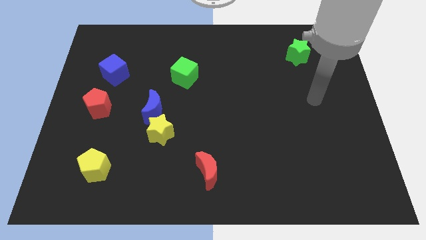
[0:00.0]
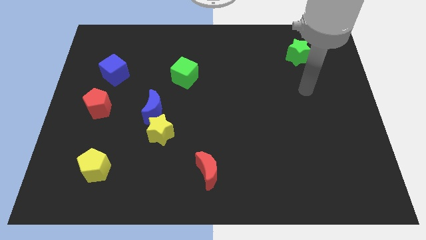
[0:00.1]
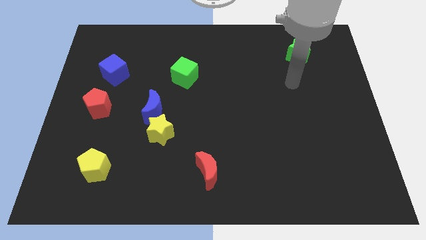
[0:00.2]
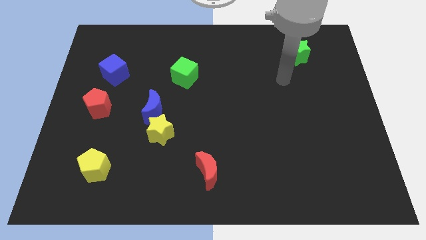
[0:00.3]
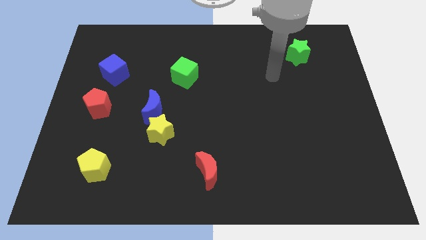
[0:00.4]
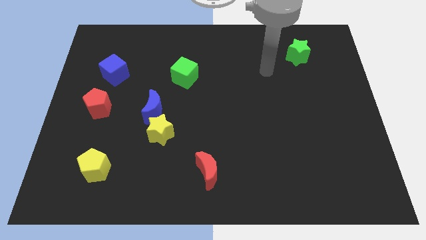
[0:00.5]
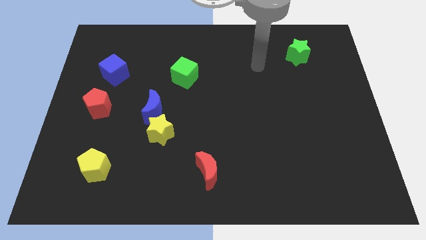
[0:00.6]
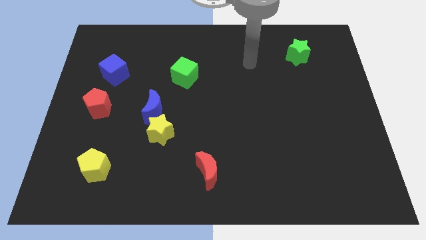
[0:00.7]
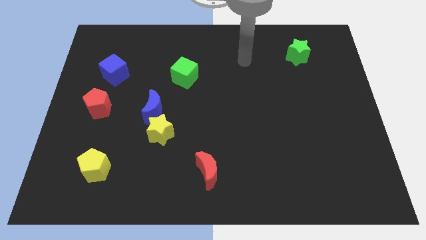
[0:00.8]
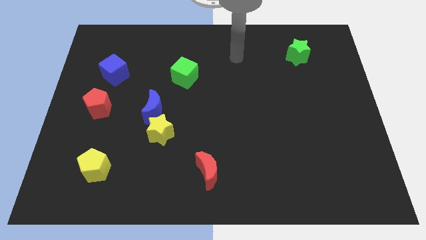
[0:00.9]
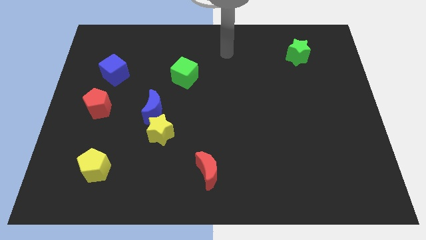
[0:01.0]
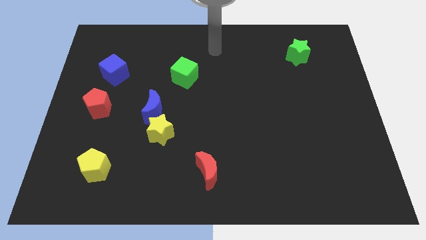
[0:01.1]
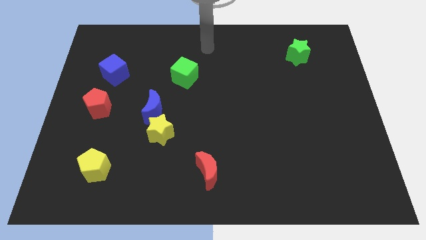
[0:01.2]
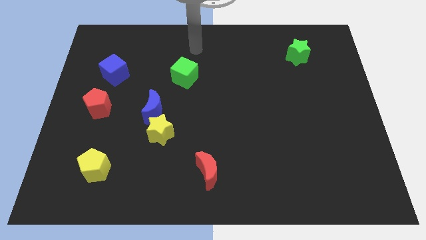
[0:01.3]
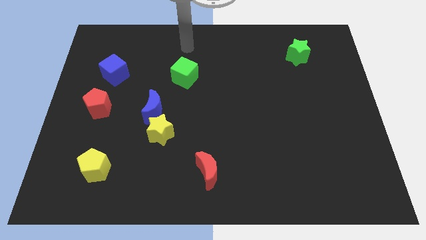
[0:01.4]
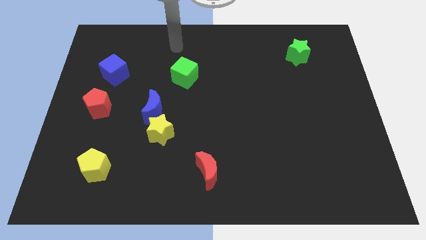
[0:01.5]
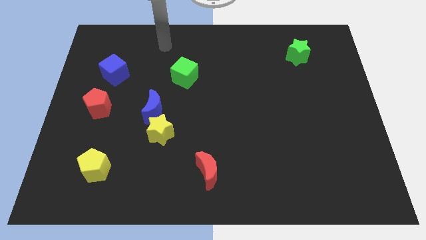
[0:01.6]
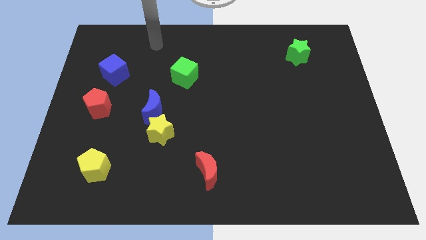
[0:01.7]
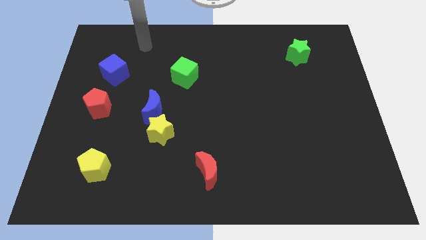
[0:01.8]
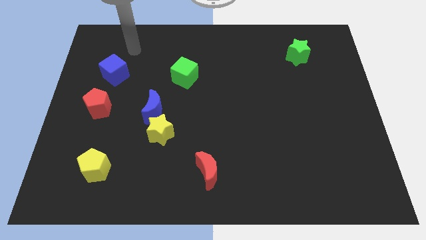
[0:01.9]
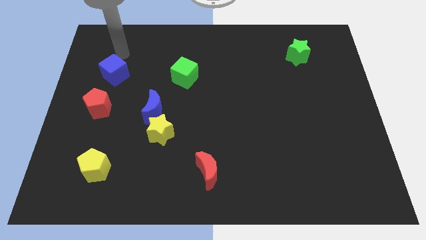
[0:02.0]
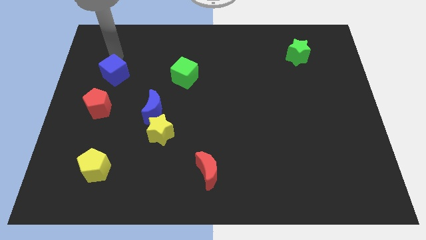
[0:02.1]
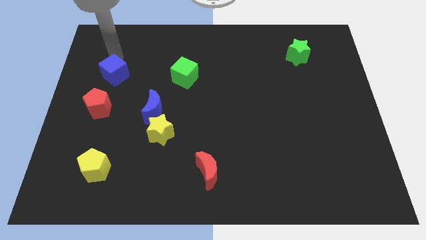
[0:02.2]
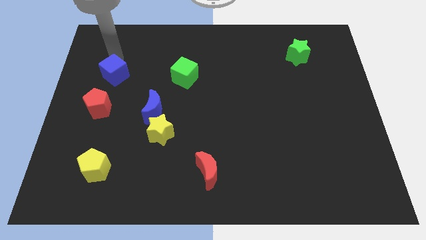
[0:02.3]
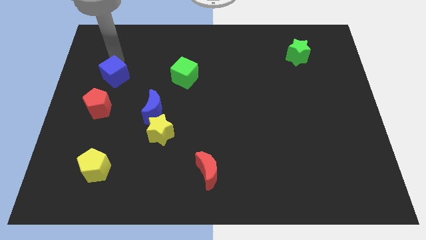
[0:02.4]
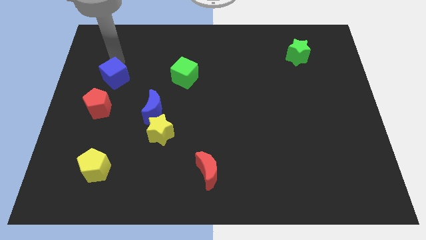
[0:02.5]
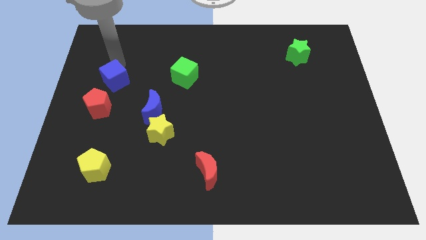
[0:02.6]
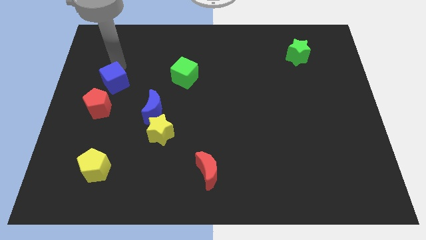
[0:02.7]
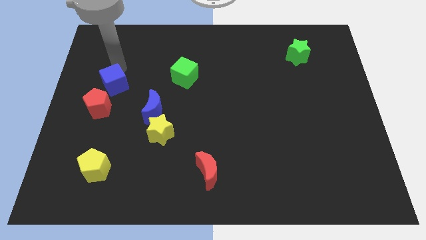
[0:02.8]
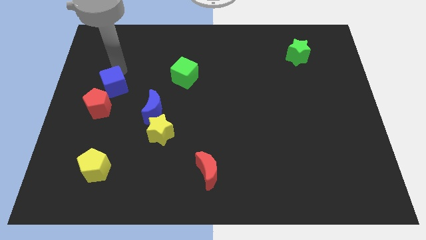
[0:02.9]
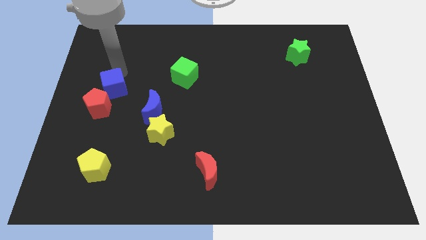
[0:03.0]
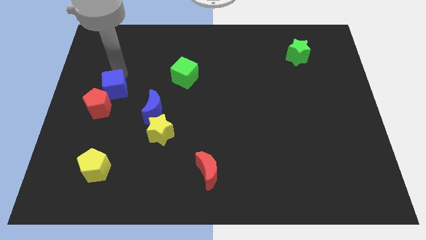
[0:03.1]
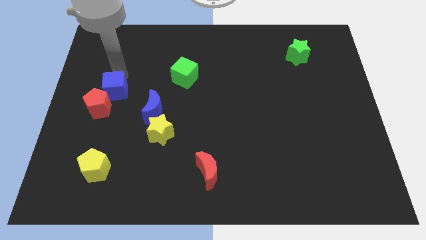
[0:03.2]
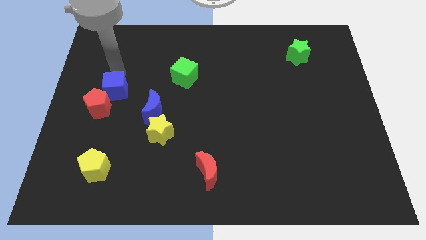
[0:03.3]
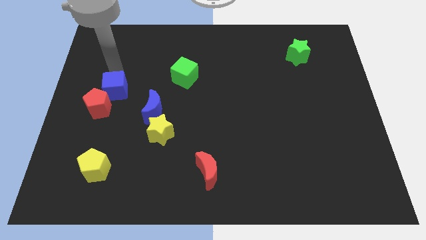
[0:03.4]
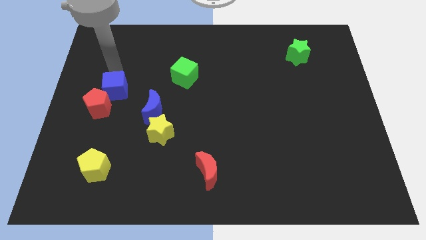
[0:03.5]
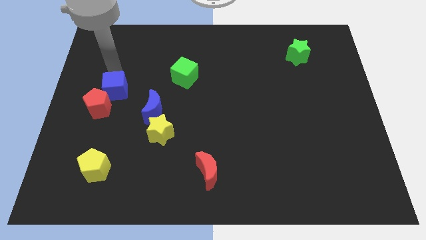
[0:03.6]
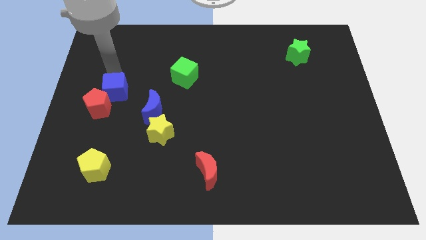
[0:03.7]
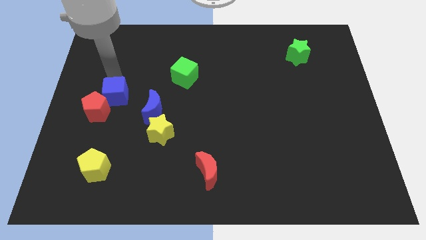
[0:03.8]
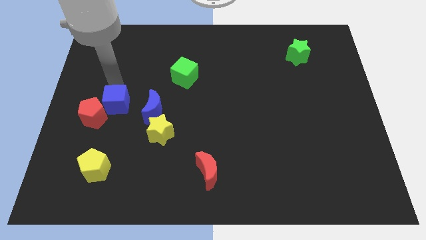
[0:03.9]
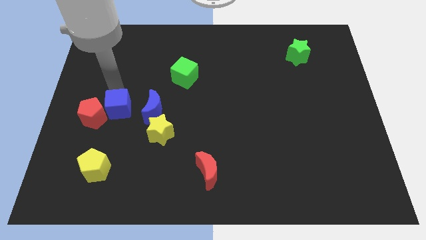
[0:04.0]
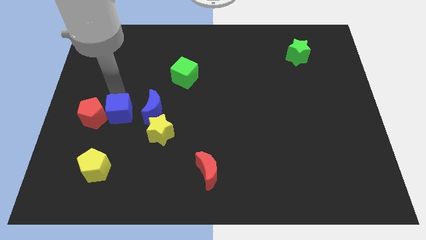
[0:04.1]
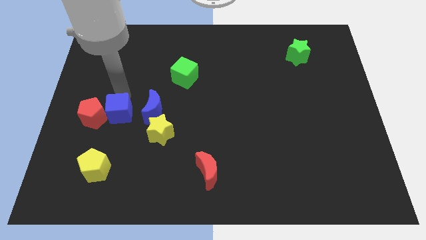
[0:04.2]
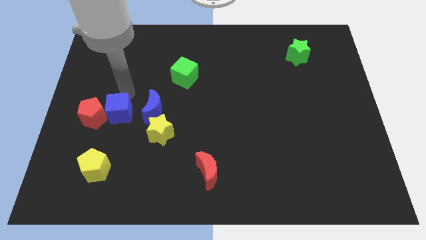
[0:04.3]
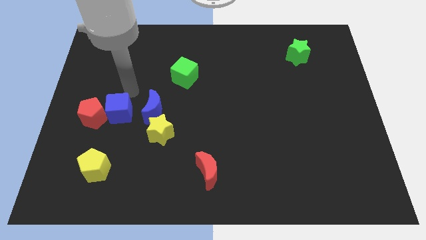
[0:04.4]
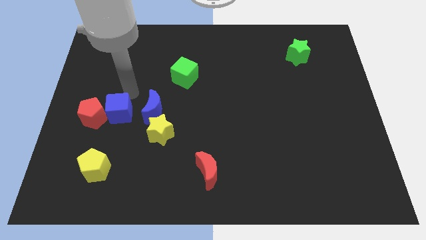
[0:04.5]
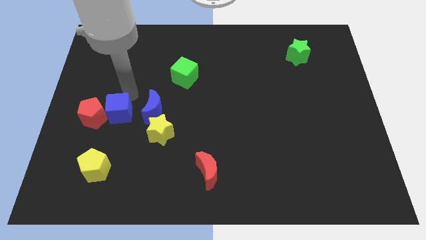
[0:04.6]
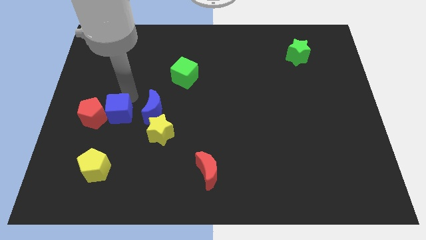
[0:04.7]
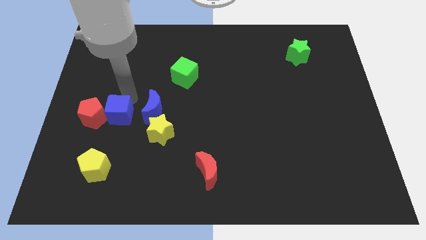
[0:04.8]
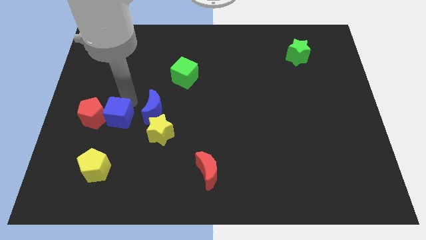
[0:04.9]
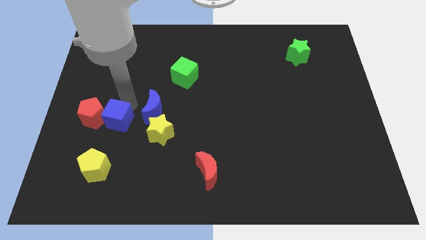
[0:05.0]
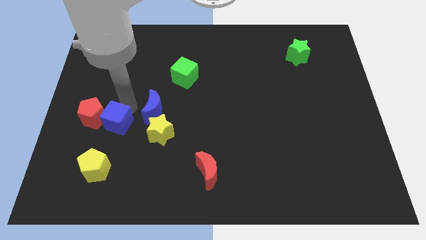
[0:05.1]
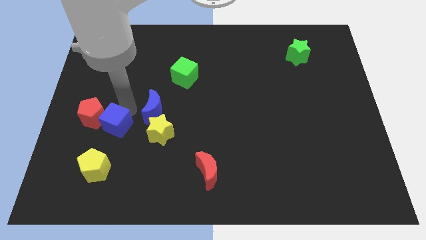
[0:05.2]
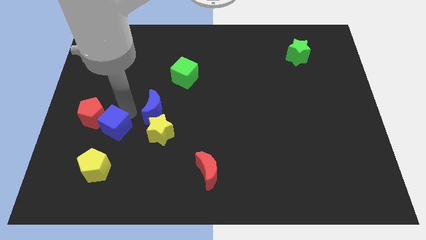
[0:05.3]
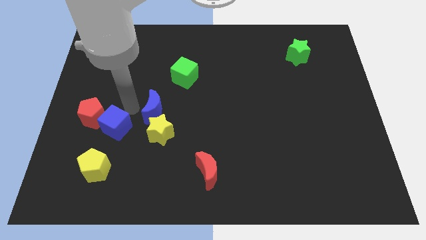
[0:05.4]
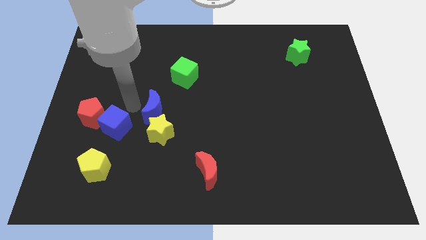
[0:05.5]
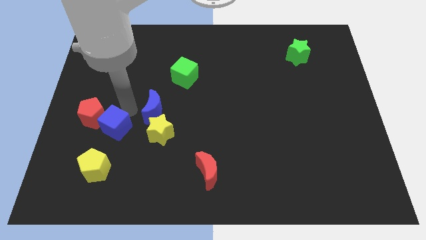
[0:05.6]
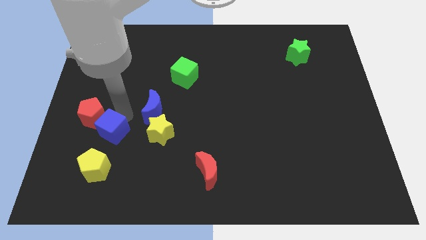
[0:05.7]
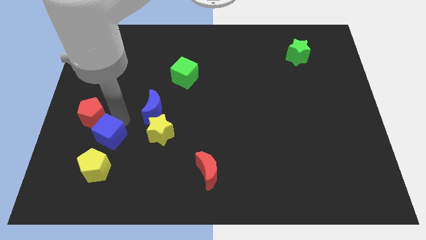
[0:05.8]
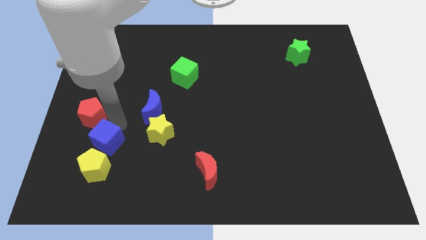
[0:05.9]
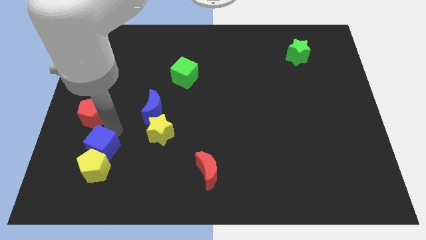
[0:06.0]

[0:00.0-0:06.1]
slide the blue cube to the yellow pentagon

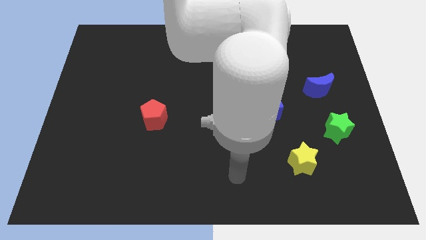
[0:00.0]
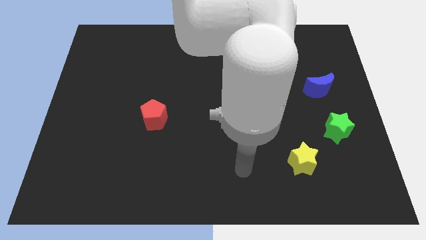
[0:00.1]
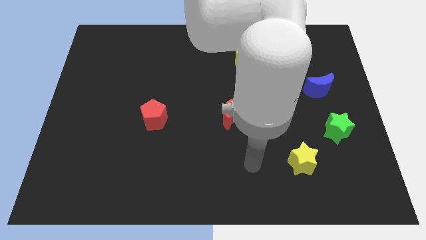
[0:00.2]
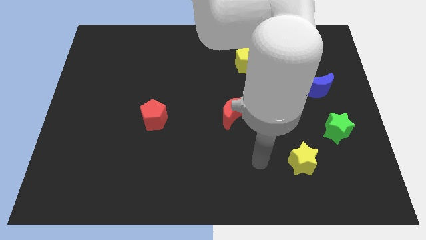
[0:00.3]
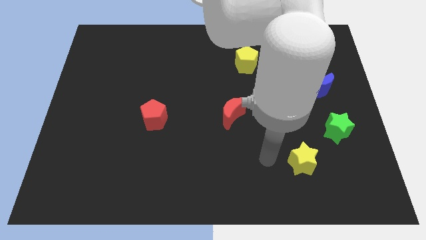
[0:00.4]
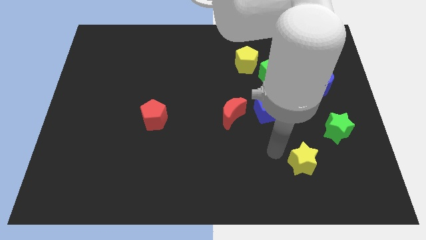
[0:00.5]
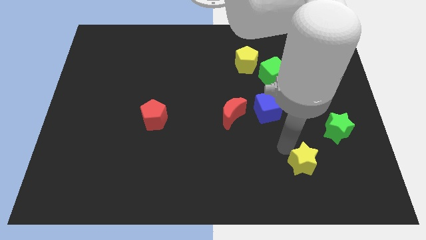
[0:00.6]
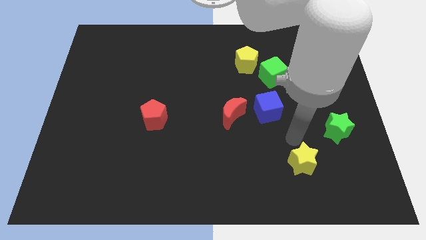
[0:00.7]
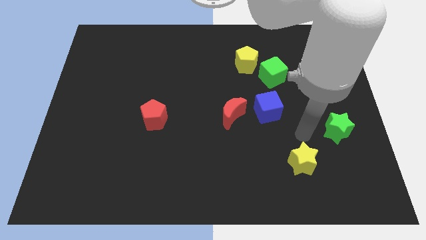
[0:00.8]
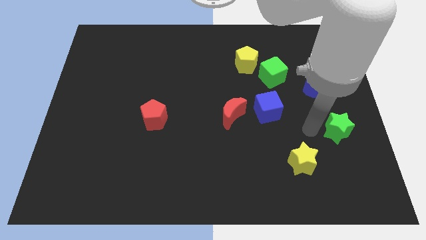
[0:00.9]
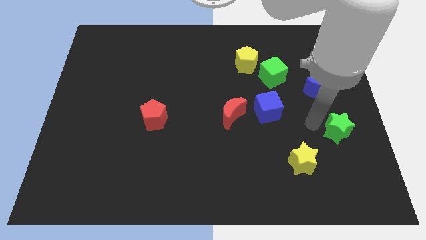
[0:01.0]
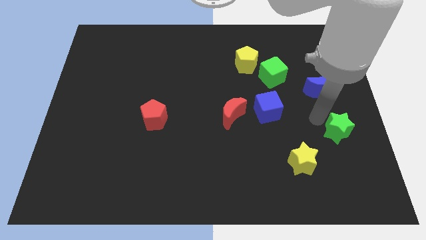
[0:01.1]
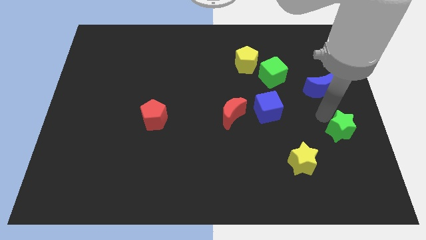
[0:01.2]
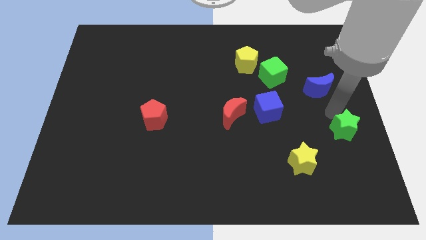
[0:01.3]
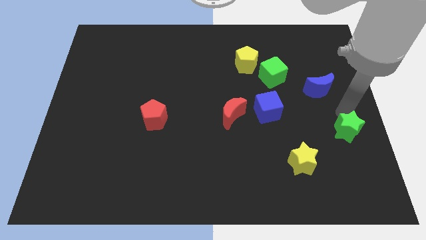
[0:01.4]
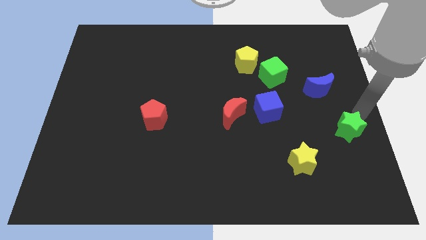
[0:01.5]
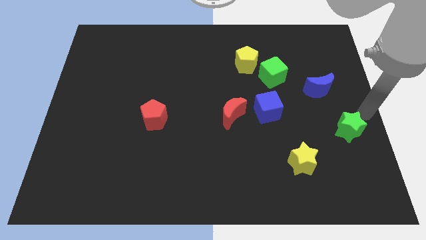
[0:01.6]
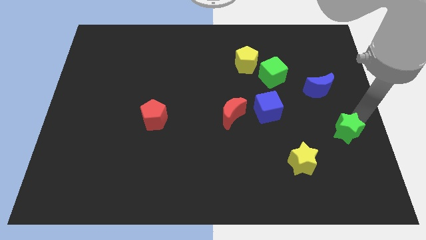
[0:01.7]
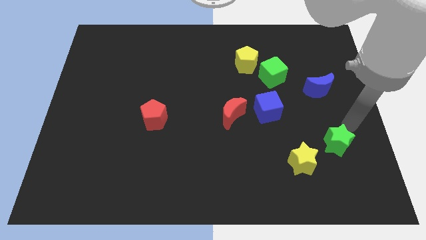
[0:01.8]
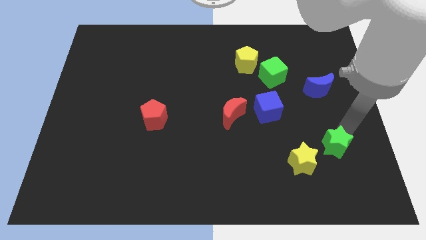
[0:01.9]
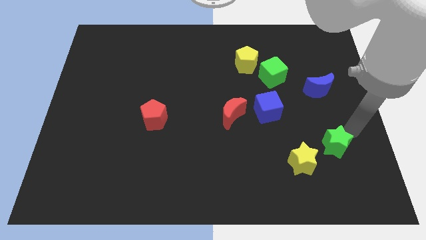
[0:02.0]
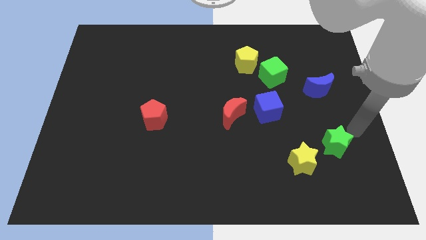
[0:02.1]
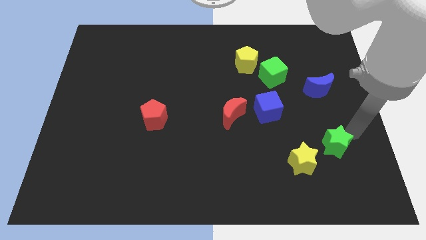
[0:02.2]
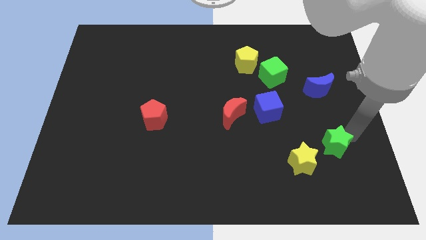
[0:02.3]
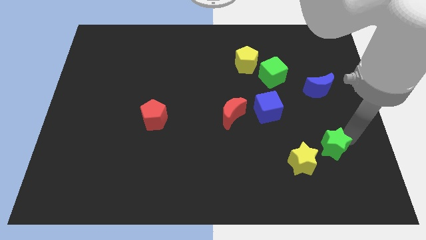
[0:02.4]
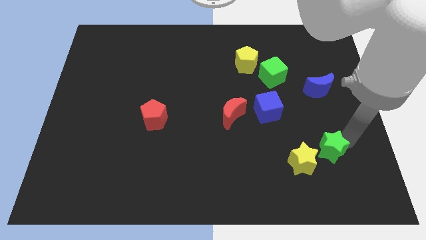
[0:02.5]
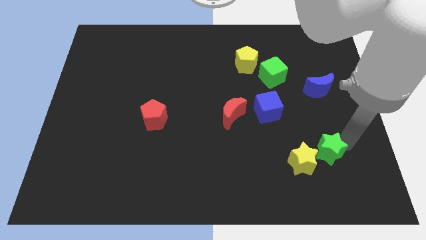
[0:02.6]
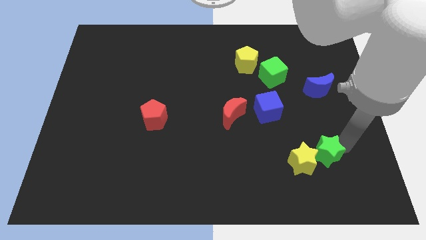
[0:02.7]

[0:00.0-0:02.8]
push the green star close to the yellow star
